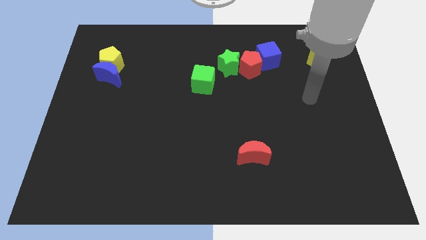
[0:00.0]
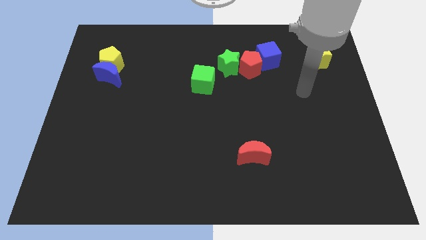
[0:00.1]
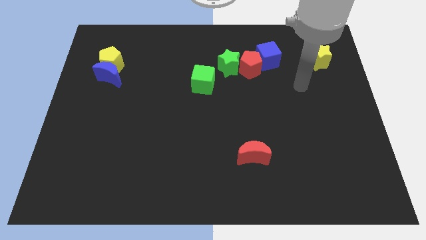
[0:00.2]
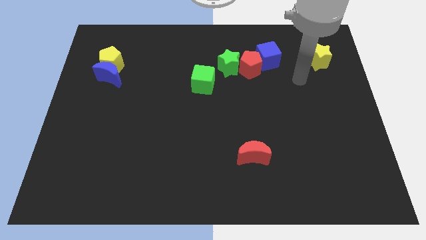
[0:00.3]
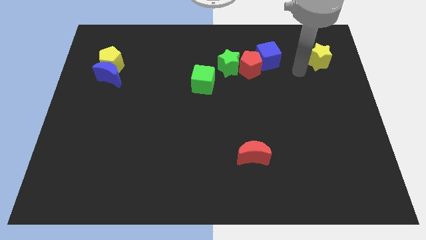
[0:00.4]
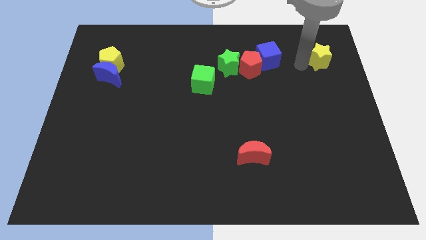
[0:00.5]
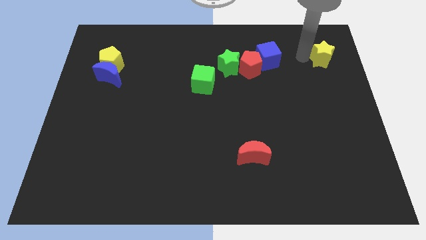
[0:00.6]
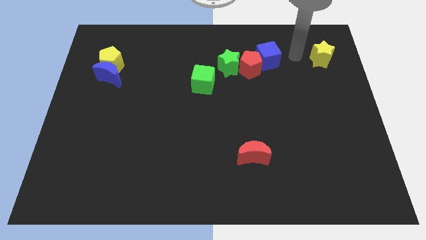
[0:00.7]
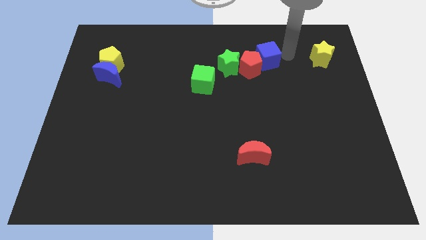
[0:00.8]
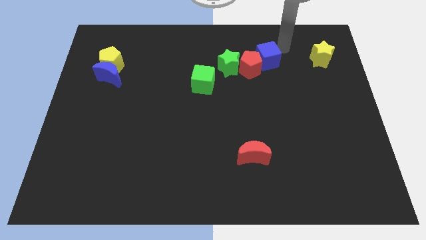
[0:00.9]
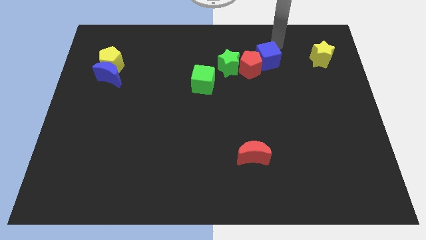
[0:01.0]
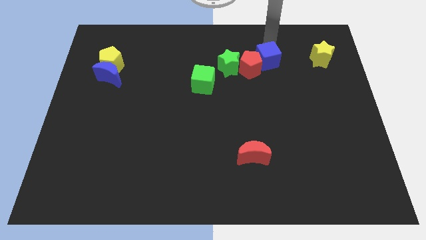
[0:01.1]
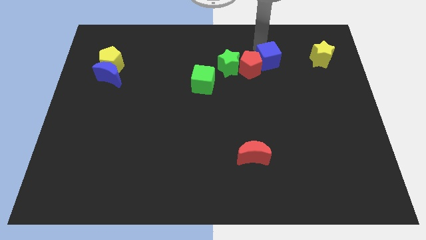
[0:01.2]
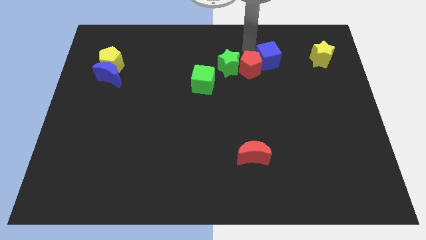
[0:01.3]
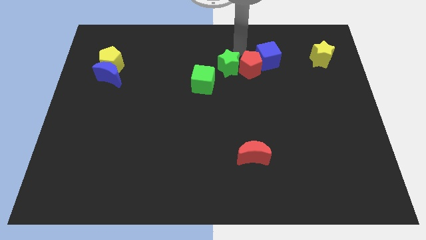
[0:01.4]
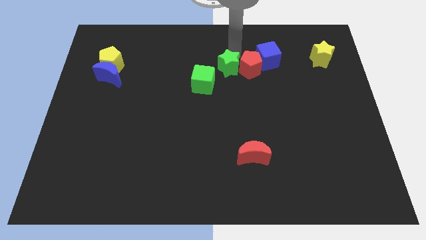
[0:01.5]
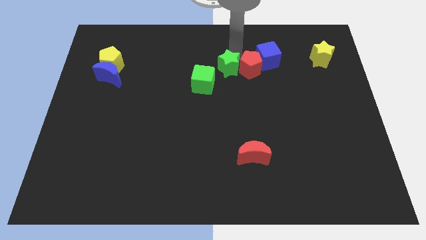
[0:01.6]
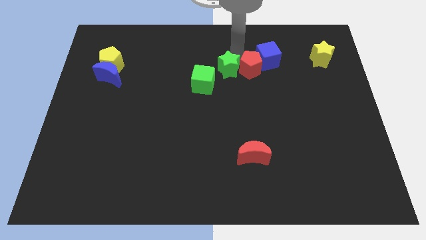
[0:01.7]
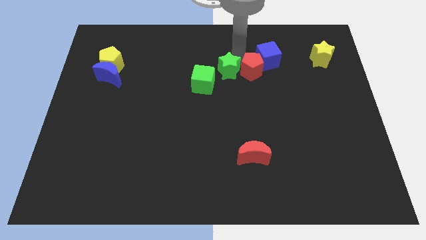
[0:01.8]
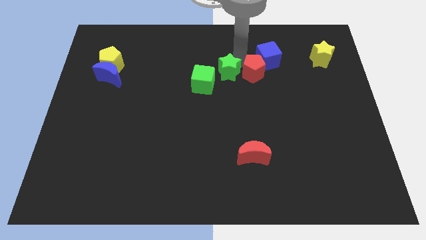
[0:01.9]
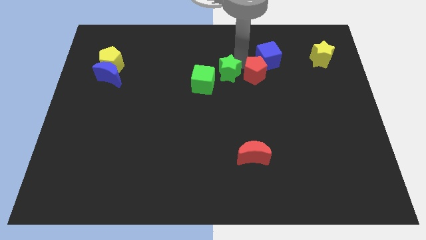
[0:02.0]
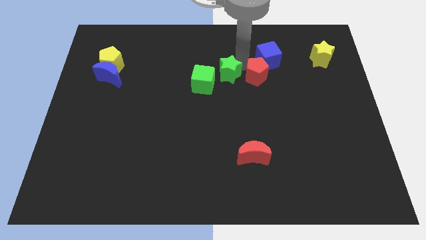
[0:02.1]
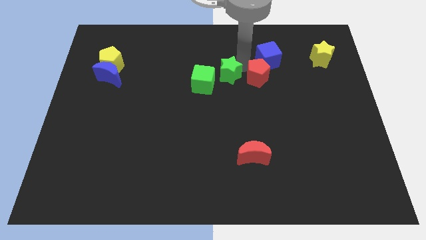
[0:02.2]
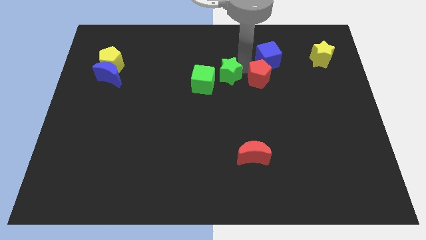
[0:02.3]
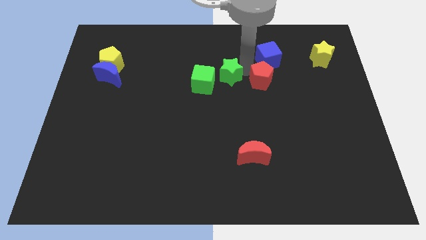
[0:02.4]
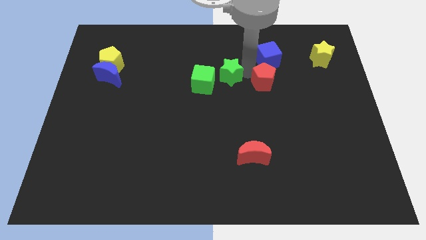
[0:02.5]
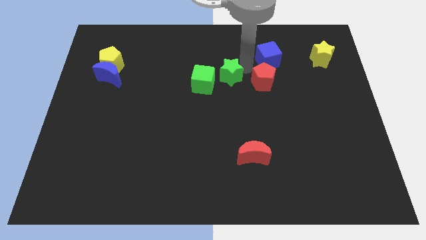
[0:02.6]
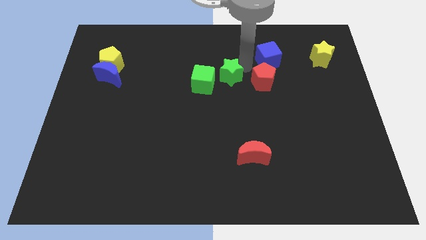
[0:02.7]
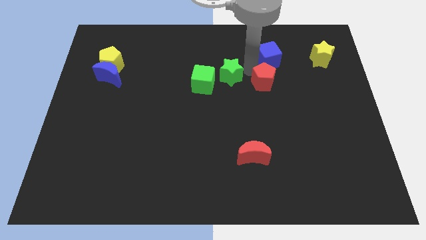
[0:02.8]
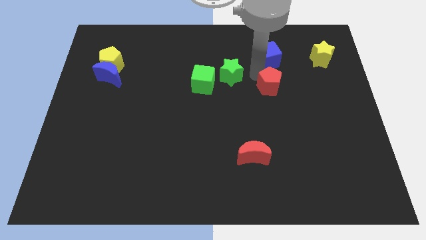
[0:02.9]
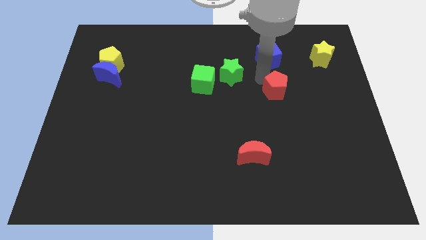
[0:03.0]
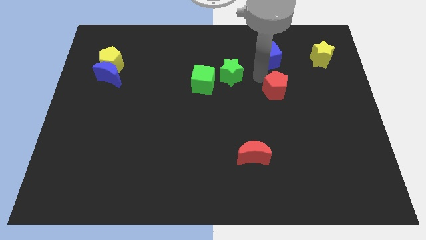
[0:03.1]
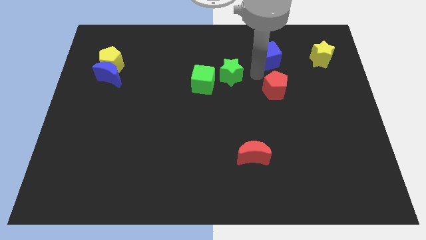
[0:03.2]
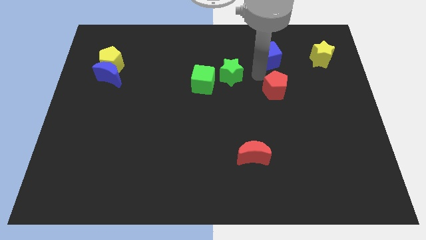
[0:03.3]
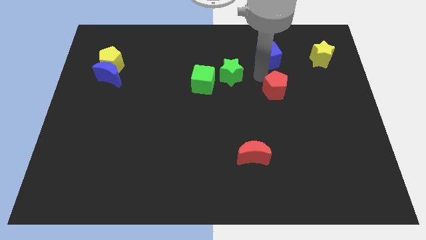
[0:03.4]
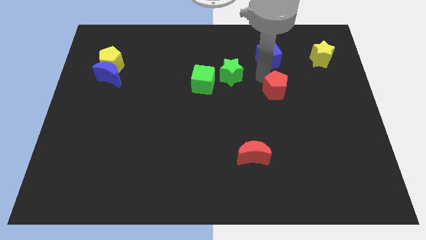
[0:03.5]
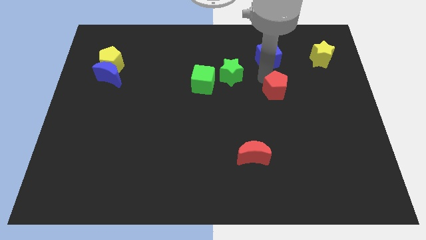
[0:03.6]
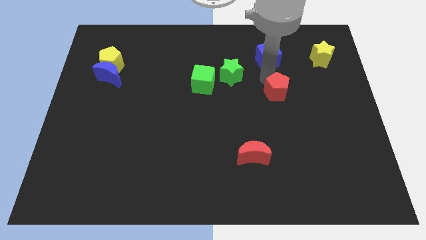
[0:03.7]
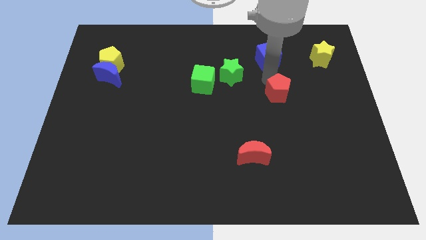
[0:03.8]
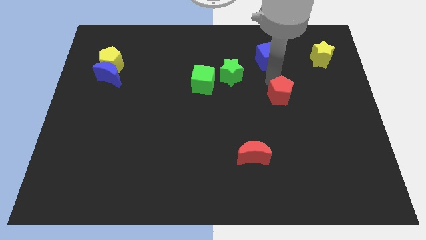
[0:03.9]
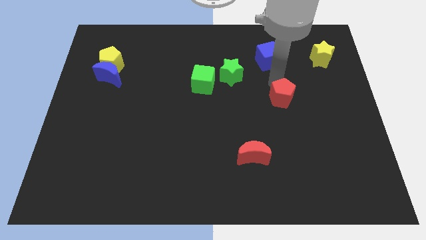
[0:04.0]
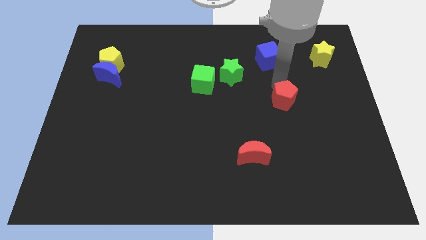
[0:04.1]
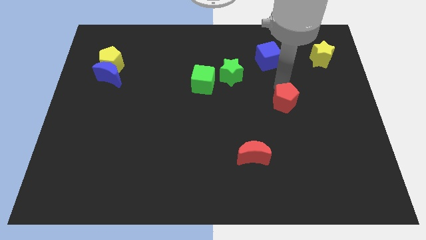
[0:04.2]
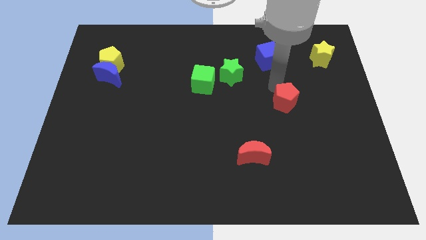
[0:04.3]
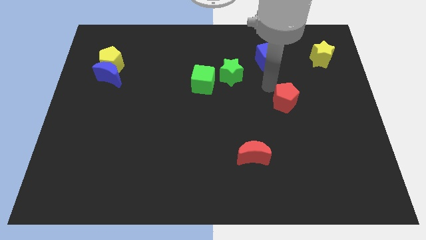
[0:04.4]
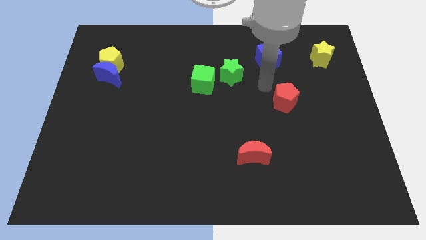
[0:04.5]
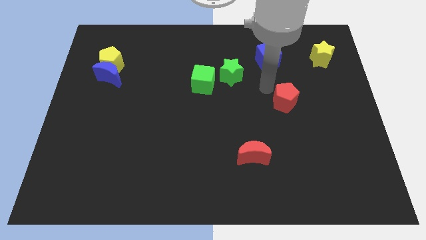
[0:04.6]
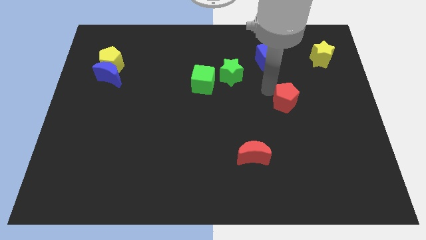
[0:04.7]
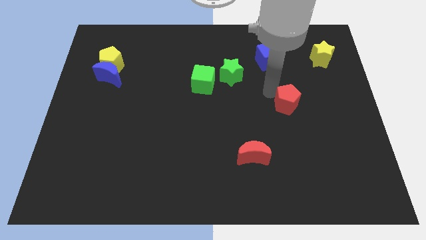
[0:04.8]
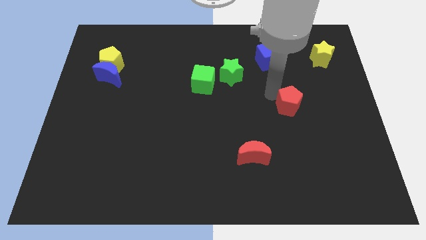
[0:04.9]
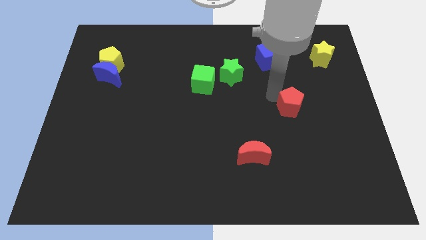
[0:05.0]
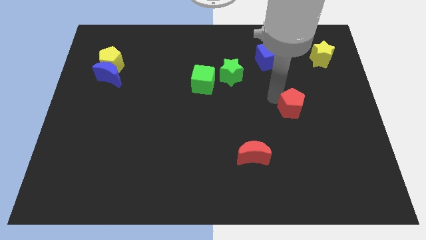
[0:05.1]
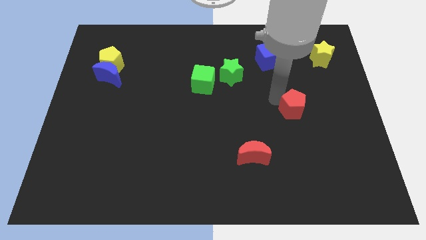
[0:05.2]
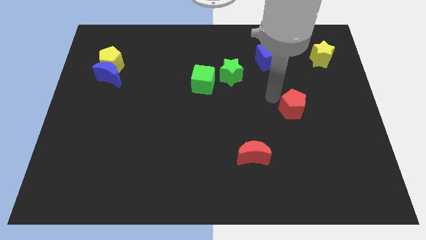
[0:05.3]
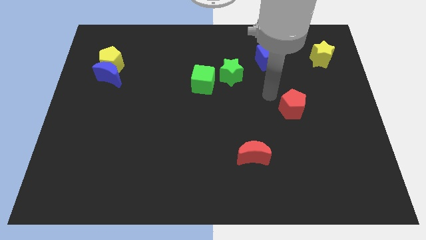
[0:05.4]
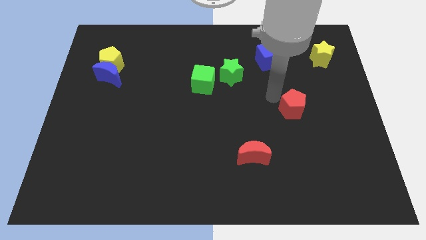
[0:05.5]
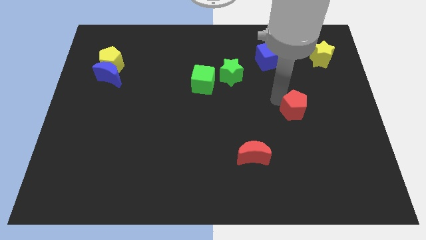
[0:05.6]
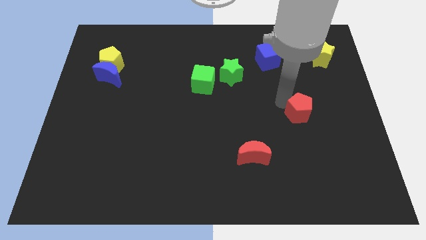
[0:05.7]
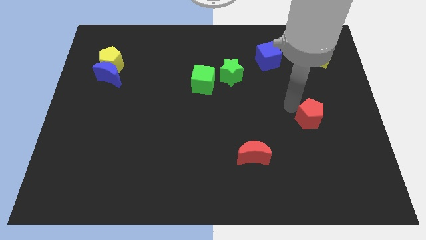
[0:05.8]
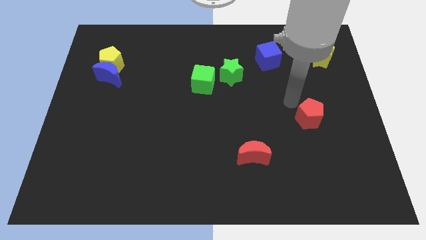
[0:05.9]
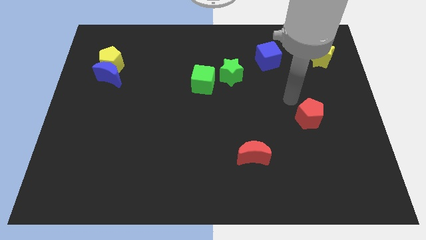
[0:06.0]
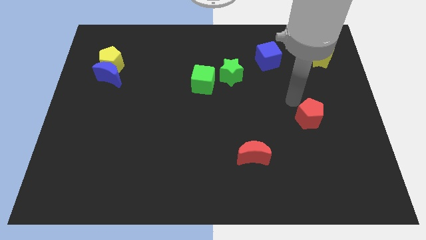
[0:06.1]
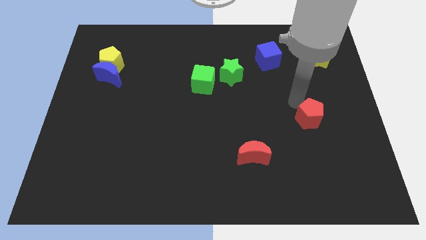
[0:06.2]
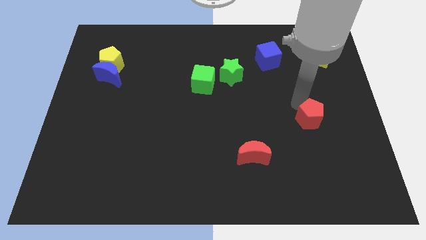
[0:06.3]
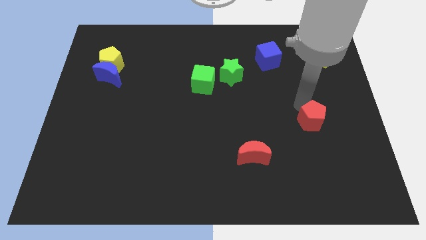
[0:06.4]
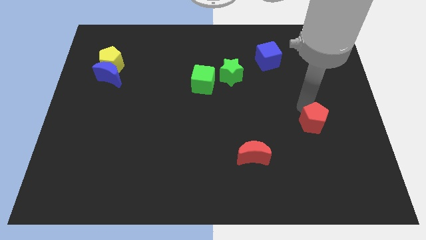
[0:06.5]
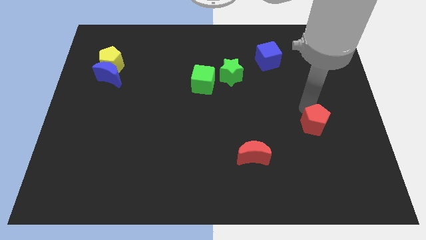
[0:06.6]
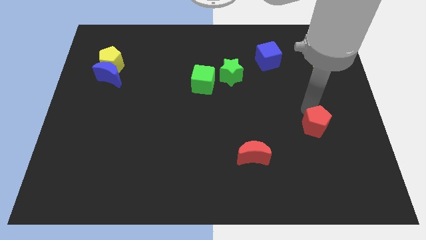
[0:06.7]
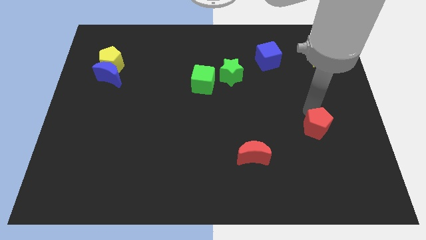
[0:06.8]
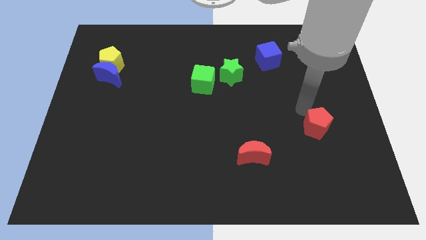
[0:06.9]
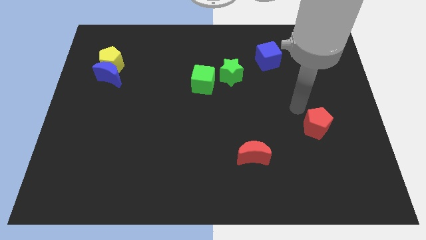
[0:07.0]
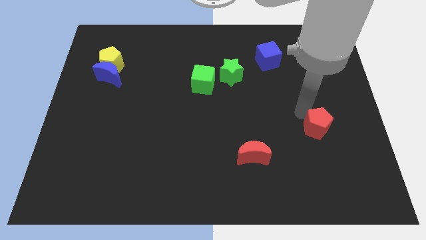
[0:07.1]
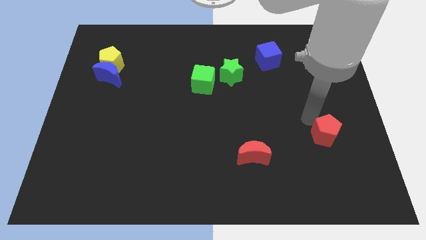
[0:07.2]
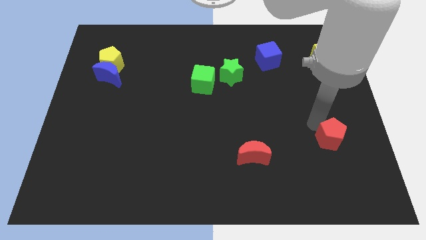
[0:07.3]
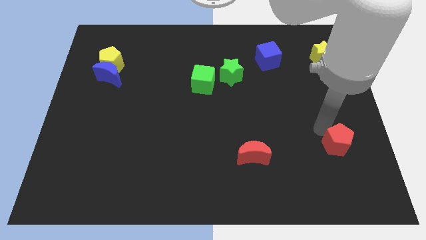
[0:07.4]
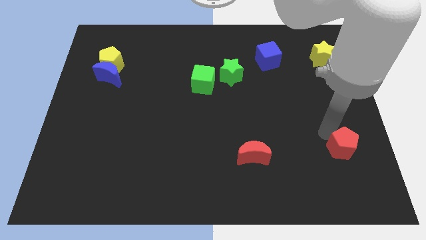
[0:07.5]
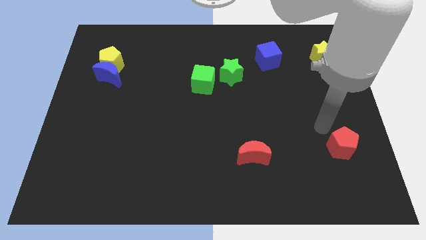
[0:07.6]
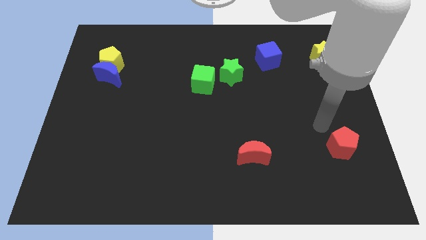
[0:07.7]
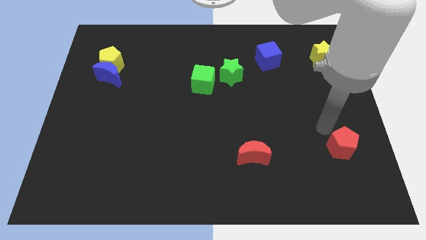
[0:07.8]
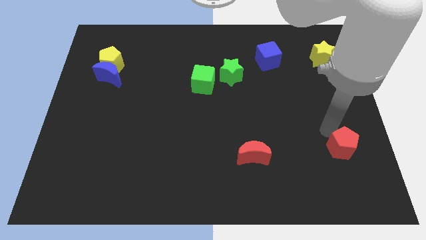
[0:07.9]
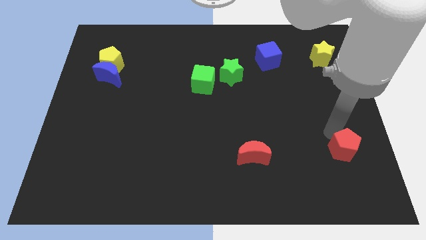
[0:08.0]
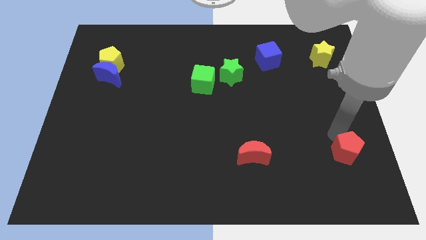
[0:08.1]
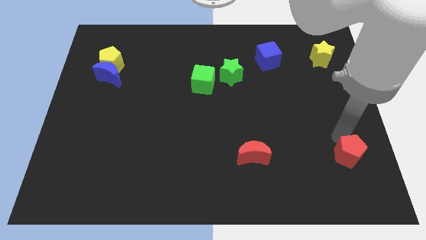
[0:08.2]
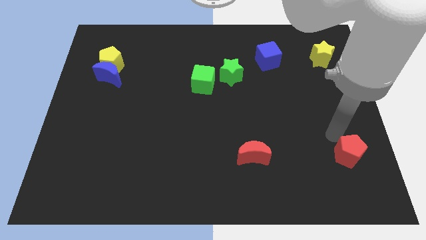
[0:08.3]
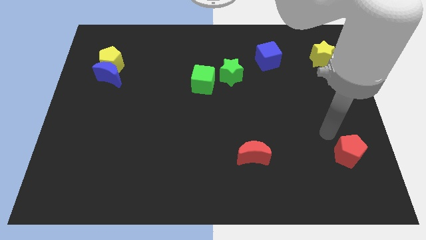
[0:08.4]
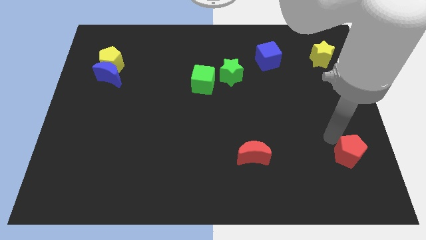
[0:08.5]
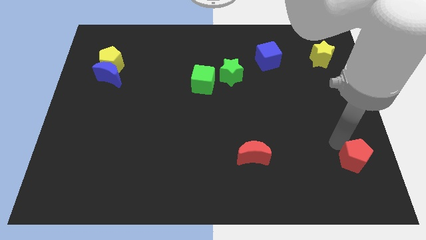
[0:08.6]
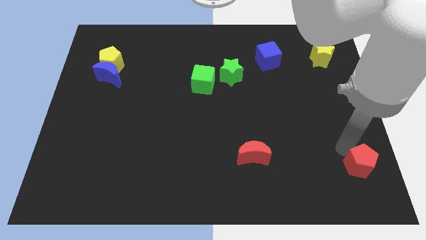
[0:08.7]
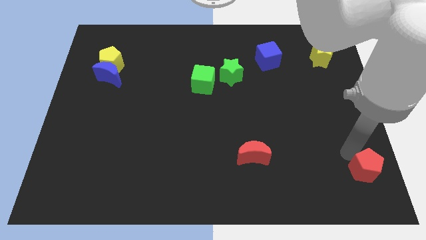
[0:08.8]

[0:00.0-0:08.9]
move the red pentagon to the lower right corner
